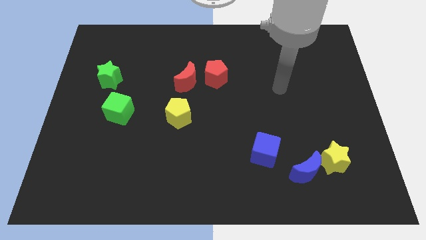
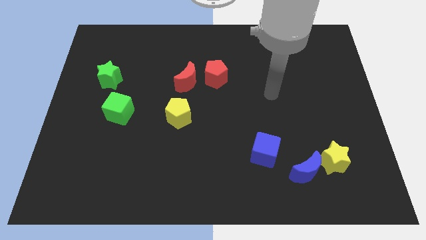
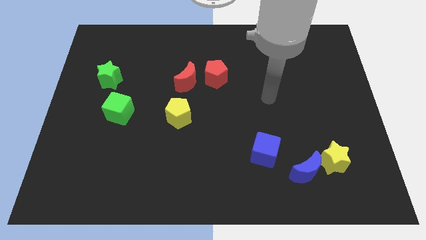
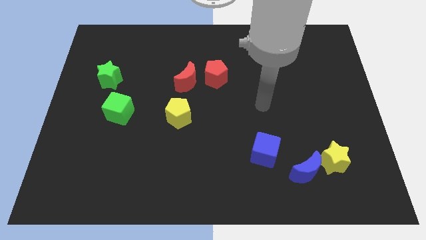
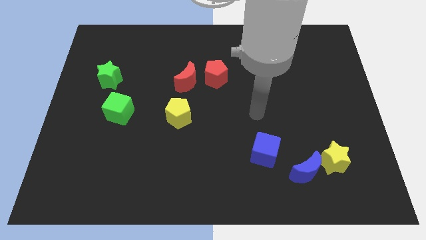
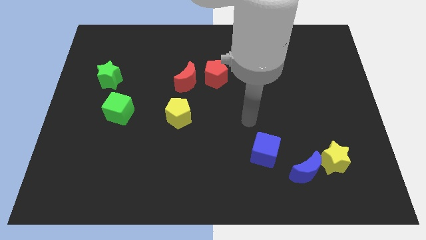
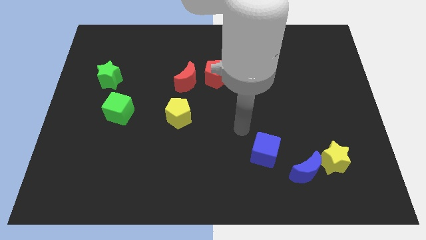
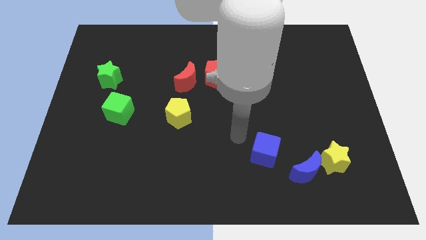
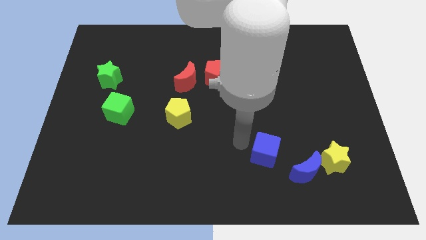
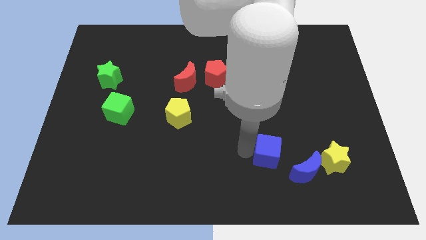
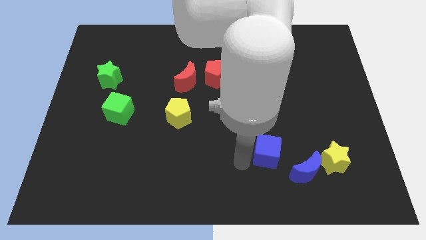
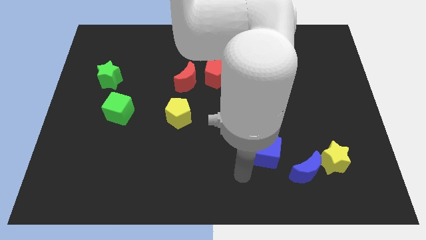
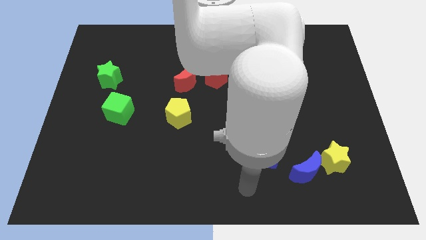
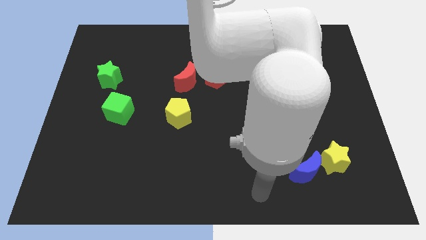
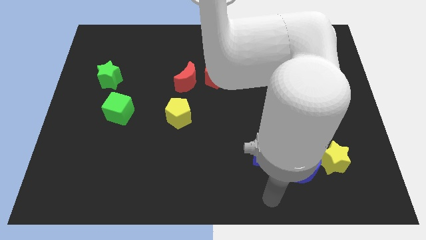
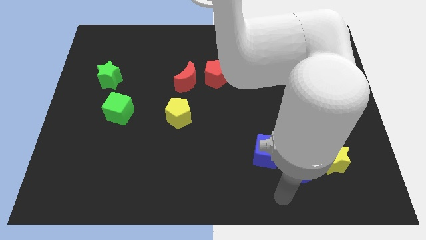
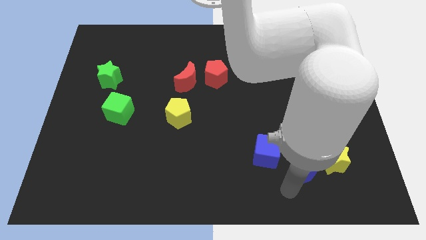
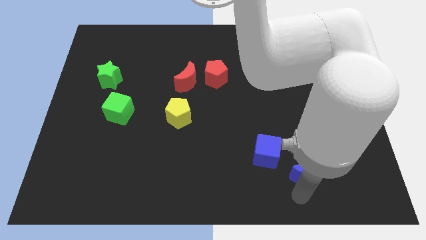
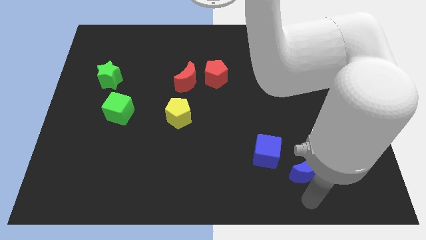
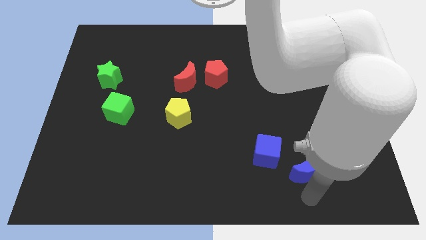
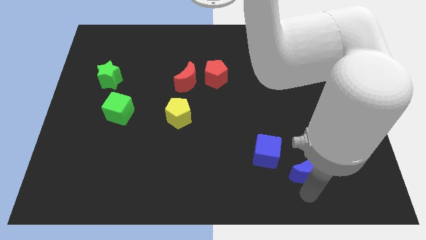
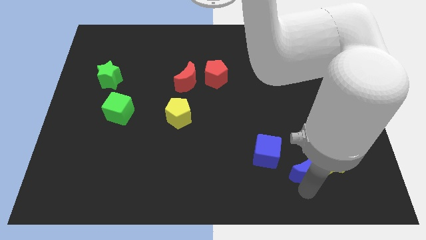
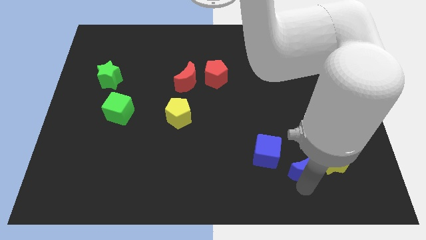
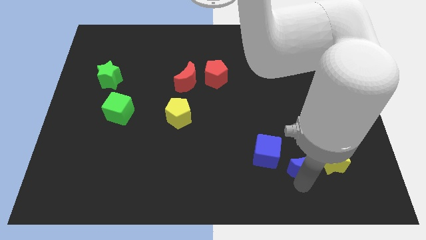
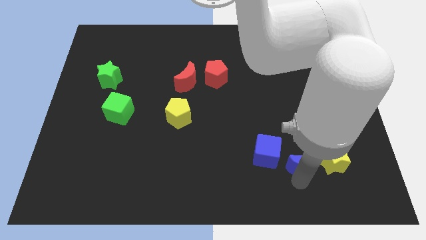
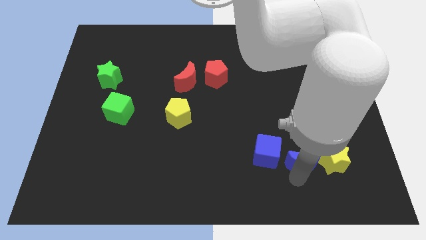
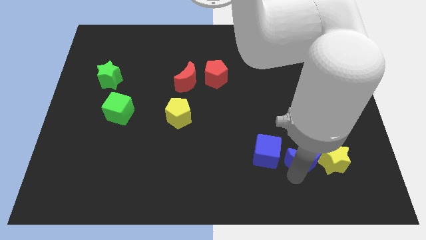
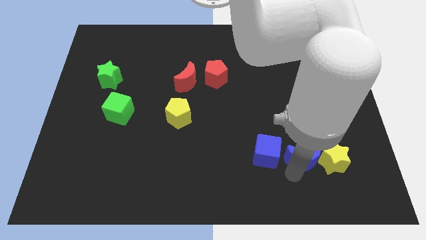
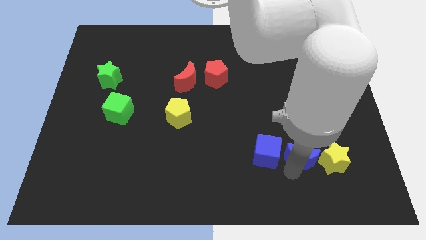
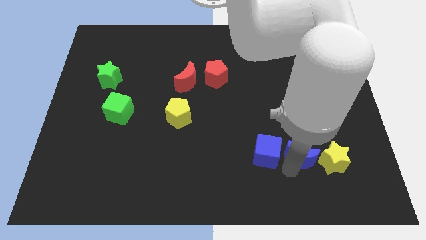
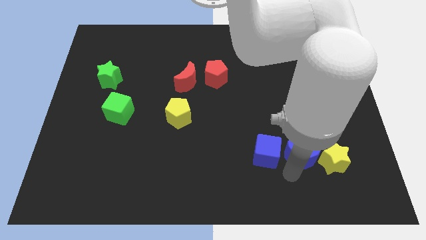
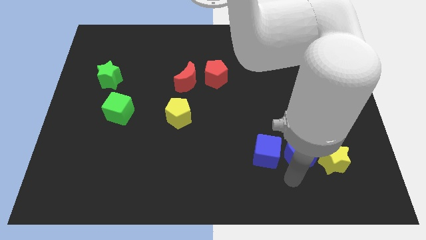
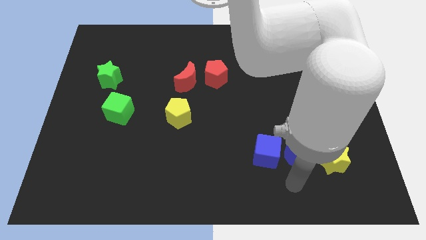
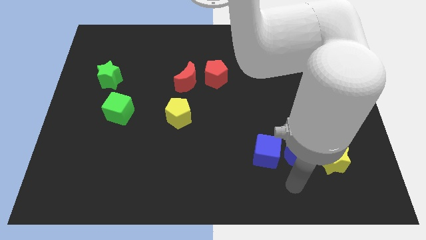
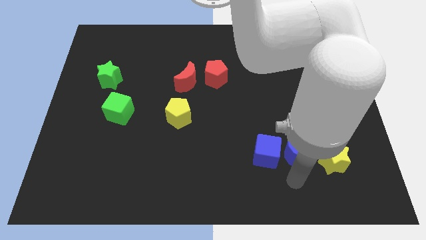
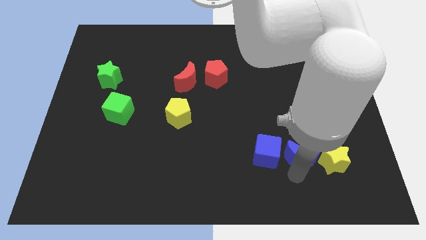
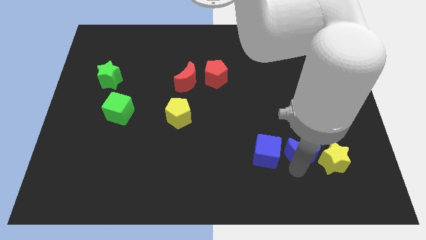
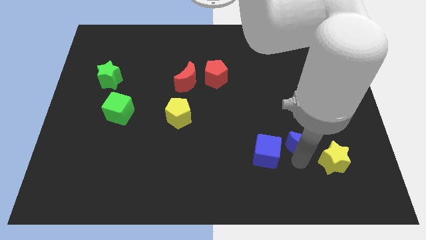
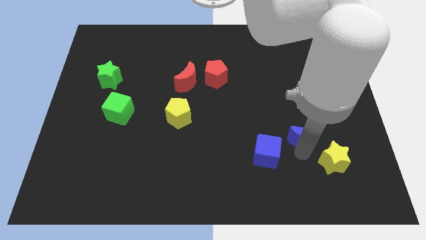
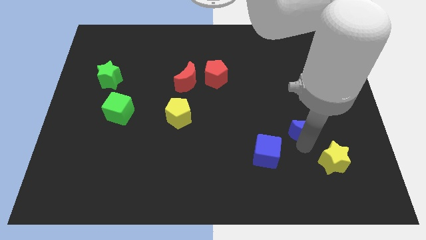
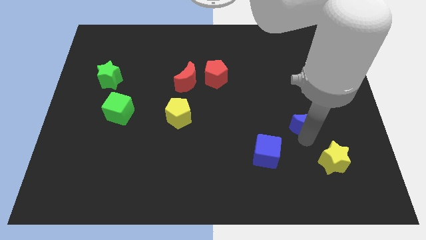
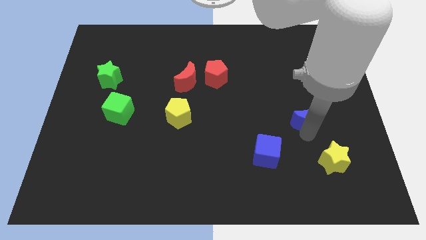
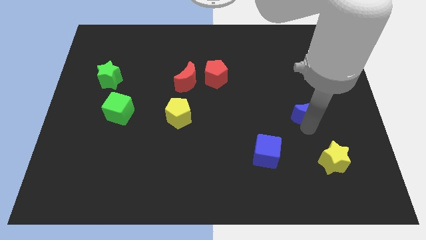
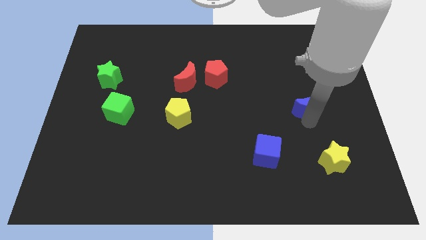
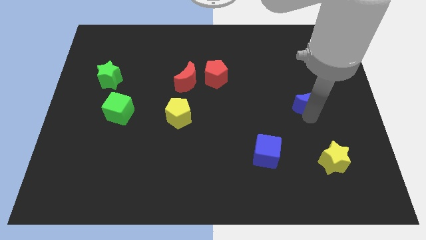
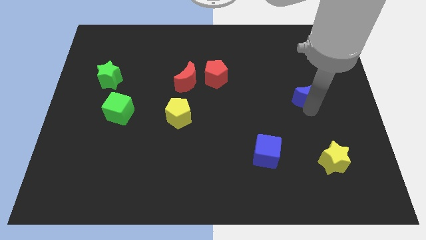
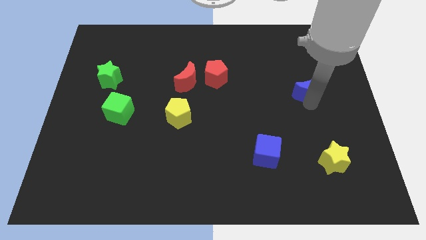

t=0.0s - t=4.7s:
move the blue moon up

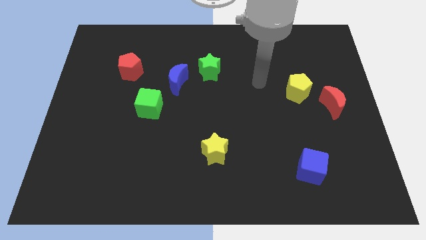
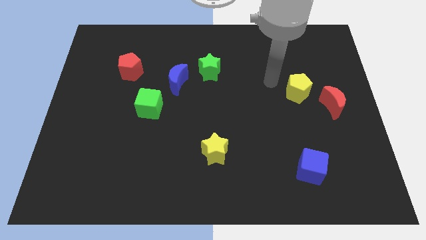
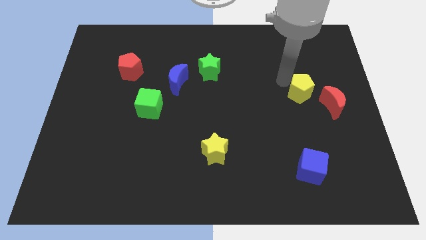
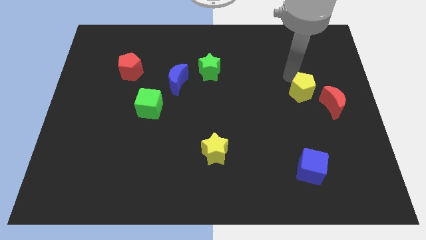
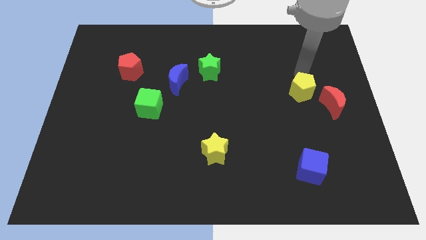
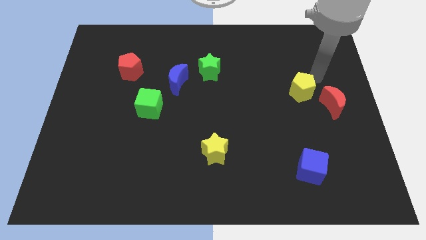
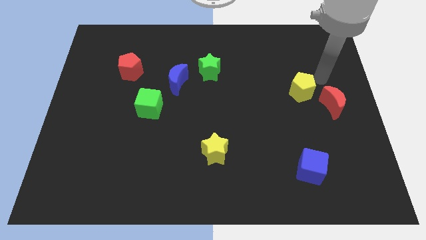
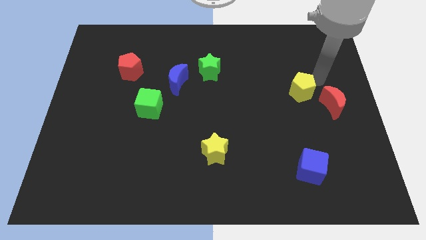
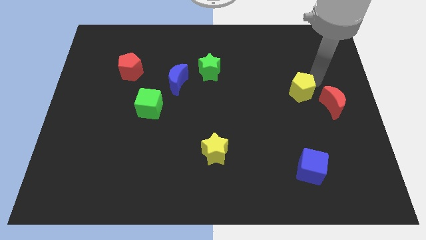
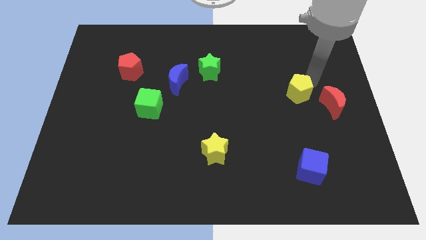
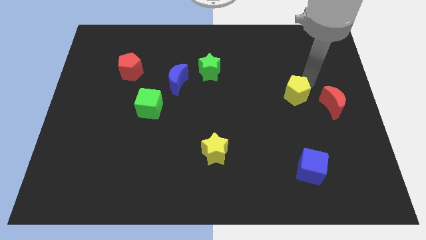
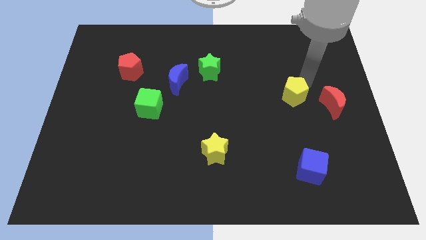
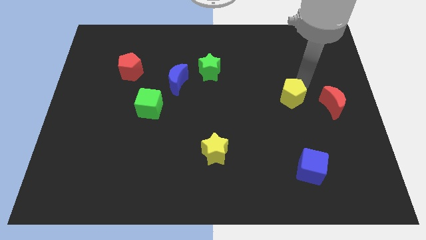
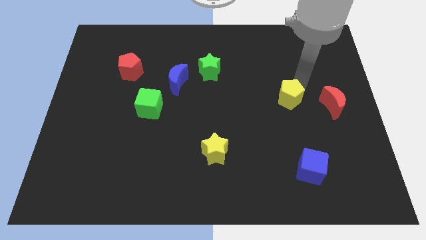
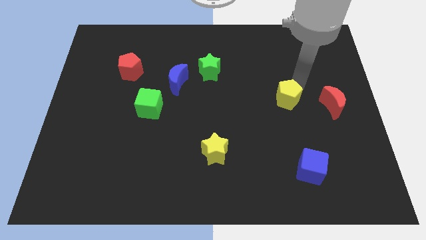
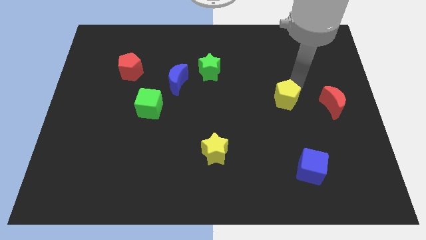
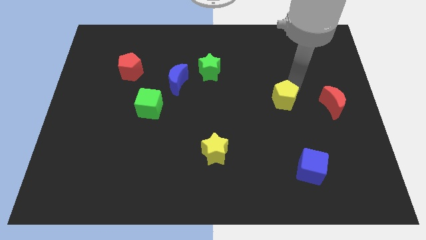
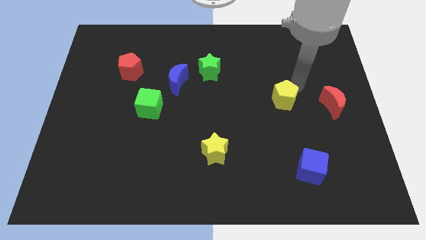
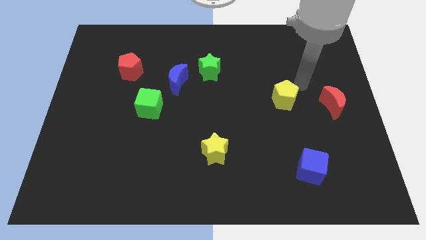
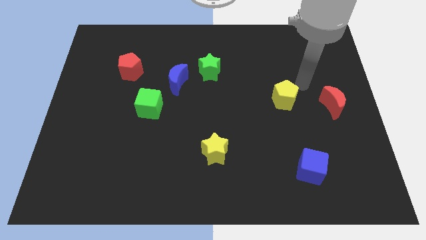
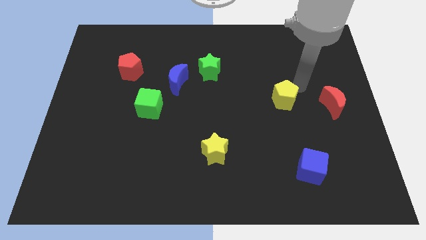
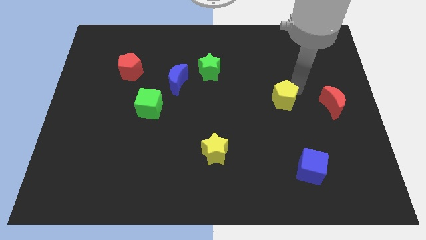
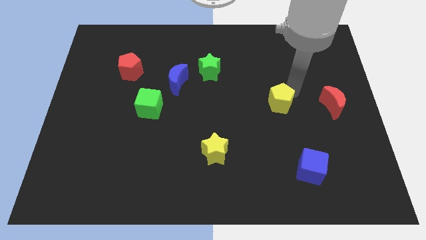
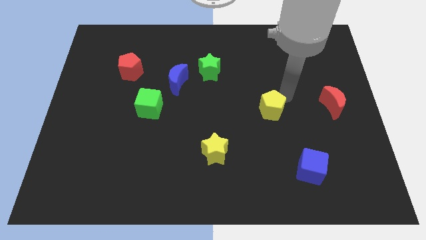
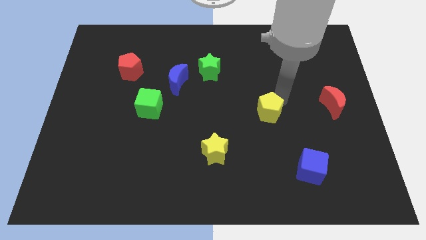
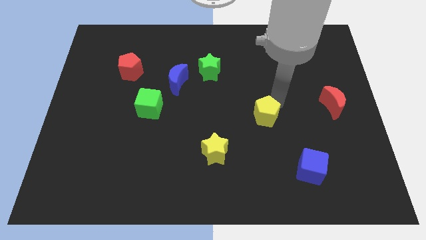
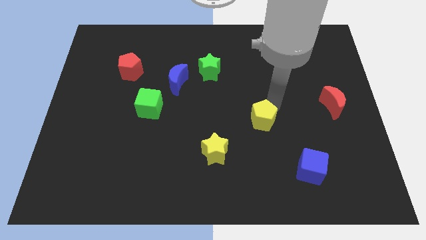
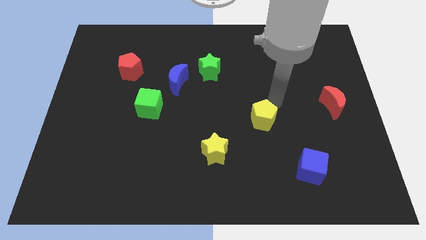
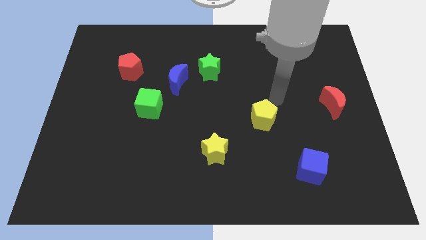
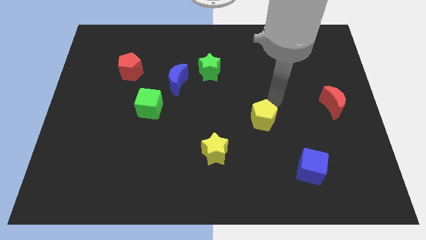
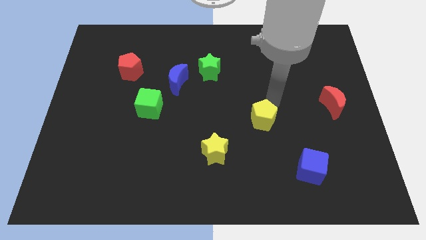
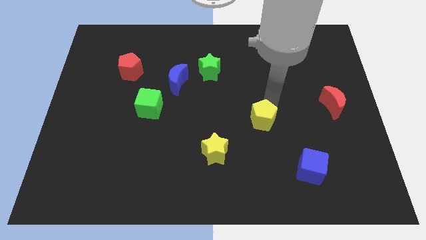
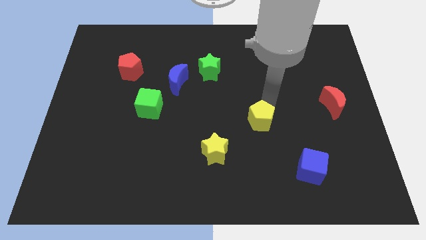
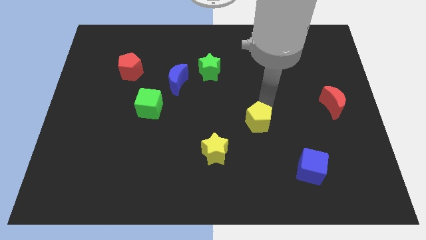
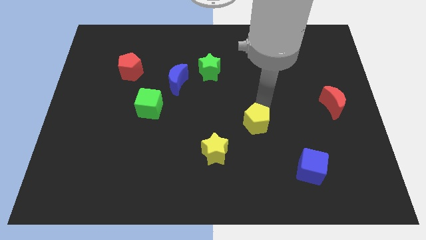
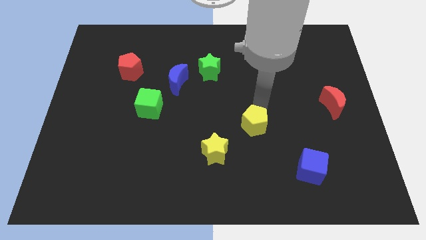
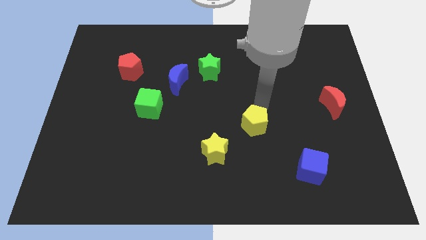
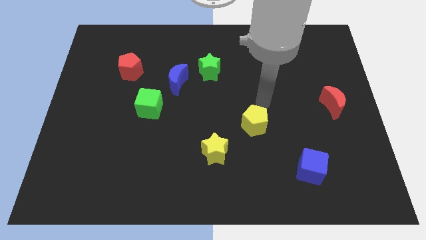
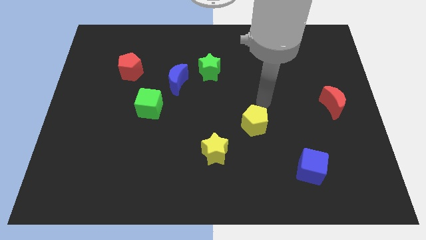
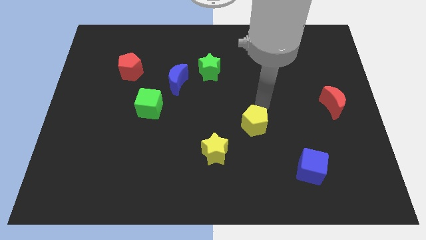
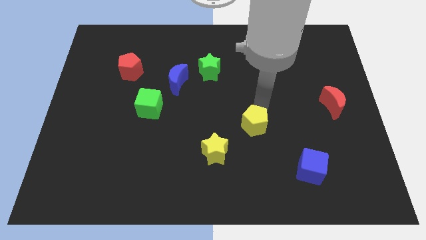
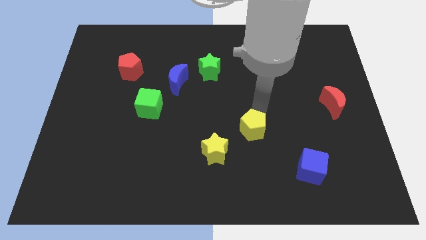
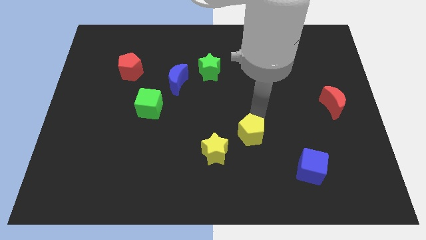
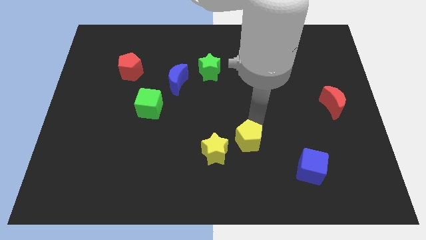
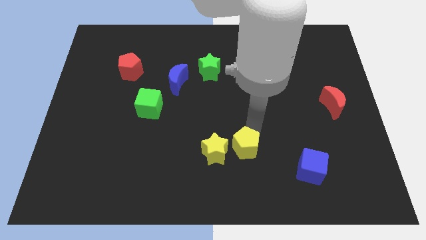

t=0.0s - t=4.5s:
push the yellow pentagon diagonally down and left
